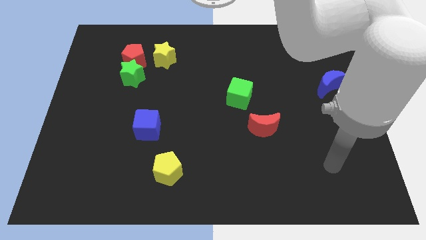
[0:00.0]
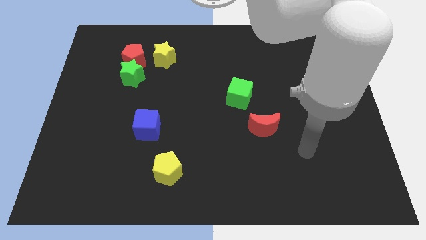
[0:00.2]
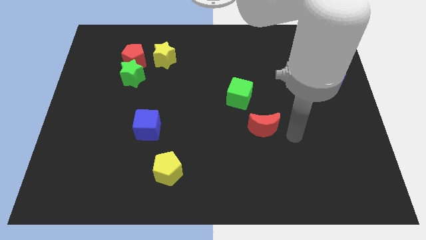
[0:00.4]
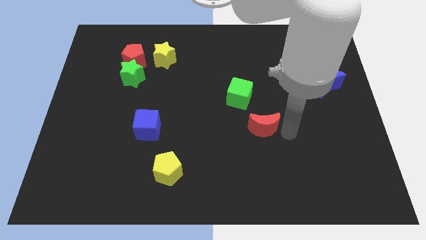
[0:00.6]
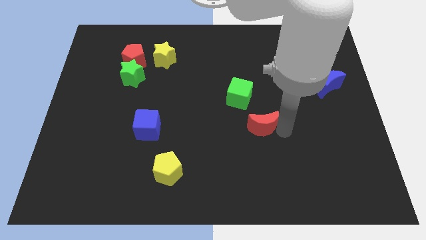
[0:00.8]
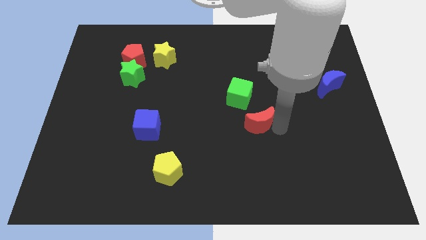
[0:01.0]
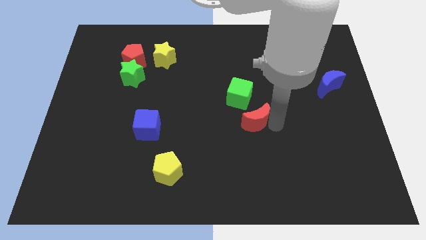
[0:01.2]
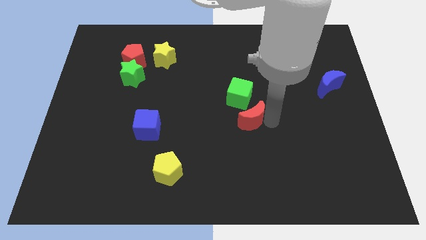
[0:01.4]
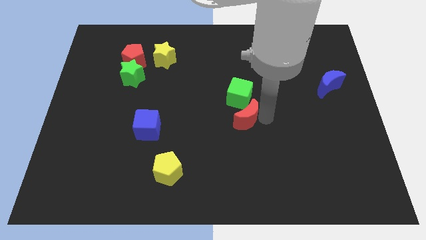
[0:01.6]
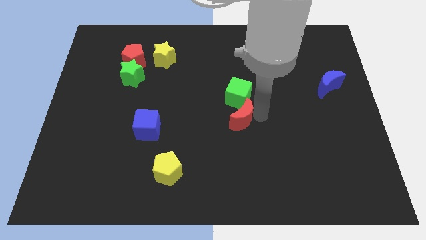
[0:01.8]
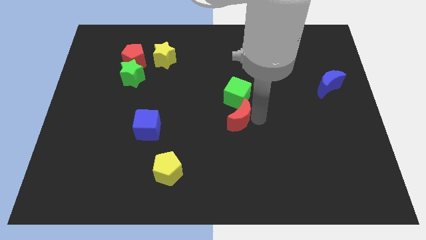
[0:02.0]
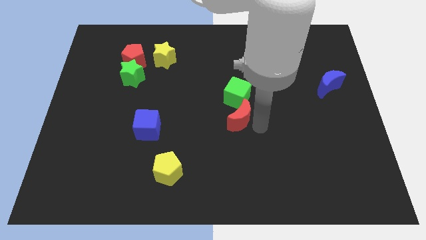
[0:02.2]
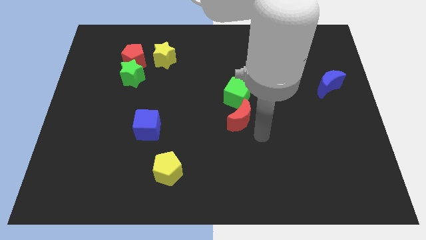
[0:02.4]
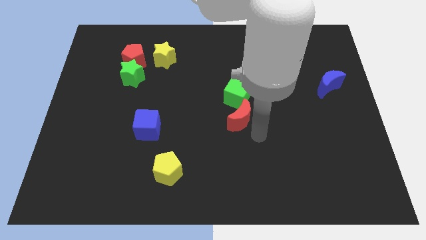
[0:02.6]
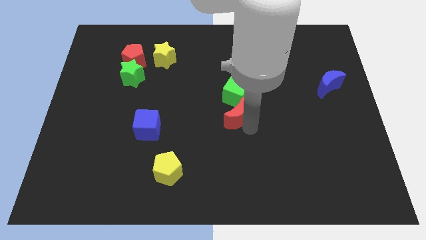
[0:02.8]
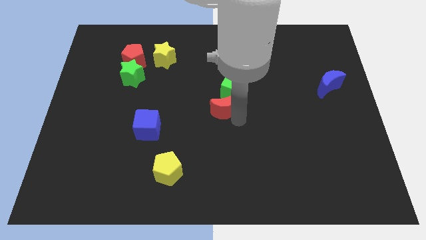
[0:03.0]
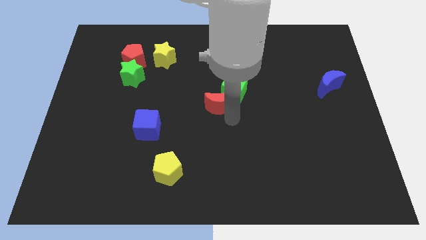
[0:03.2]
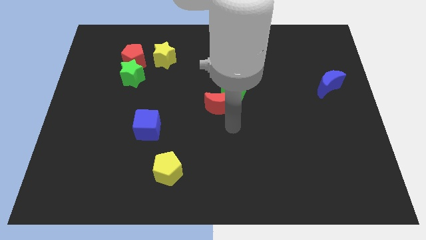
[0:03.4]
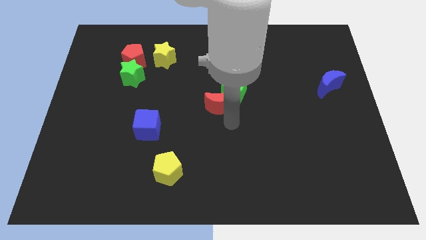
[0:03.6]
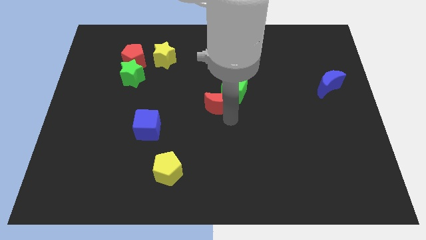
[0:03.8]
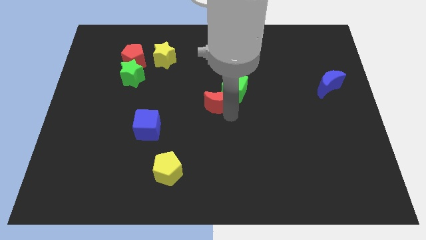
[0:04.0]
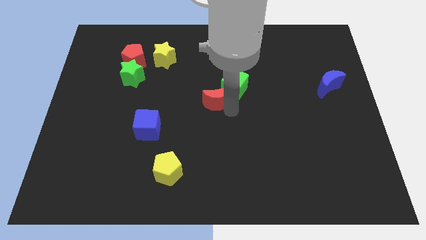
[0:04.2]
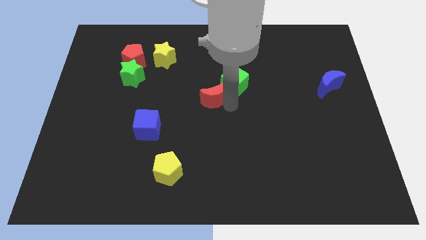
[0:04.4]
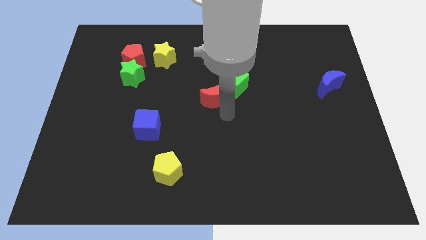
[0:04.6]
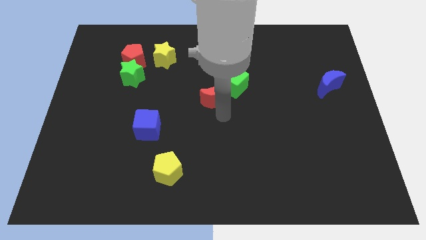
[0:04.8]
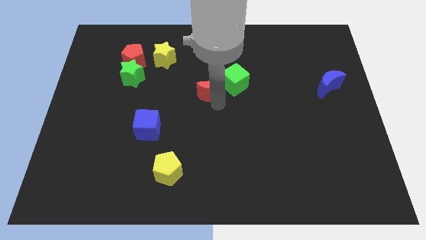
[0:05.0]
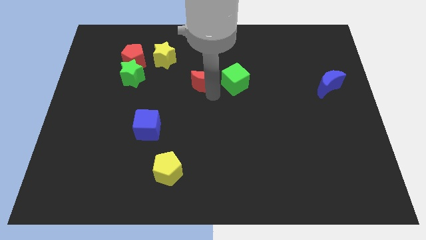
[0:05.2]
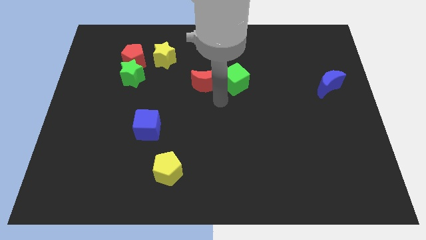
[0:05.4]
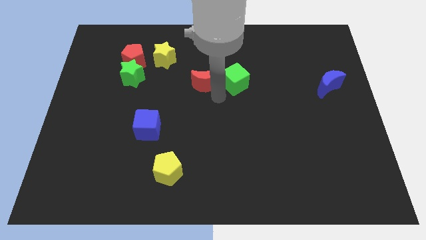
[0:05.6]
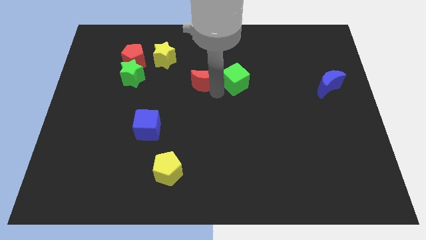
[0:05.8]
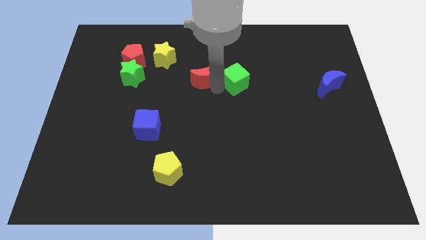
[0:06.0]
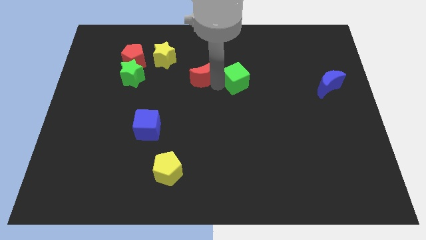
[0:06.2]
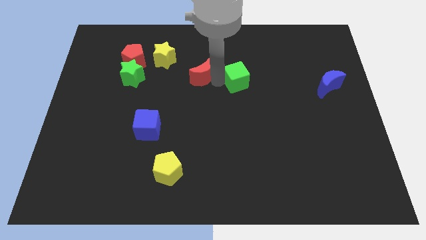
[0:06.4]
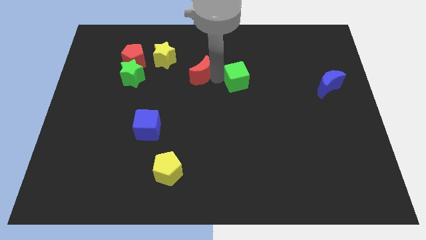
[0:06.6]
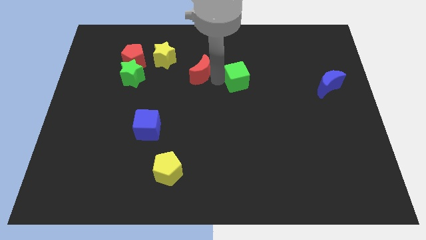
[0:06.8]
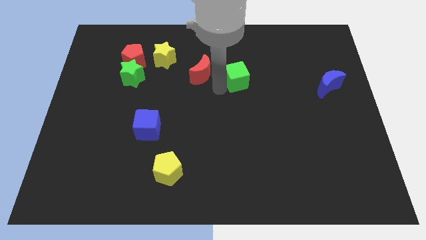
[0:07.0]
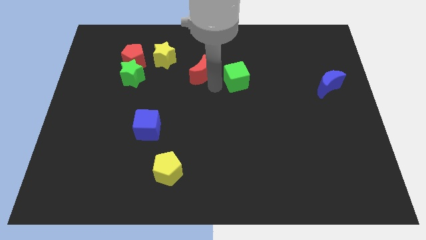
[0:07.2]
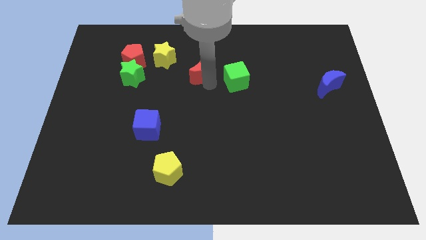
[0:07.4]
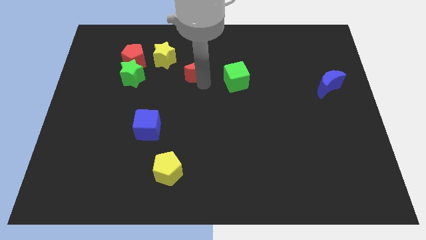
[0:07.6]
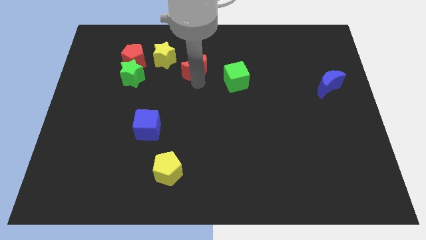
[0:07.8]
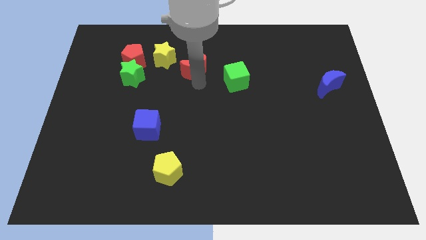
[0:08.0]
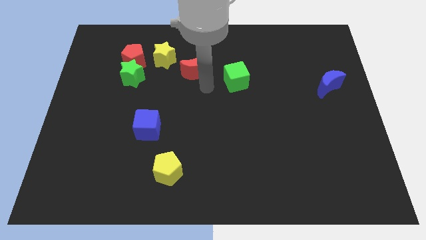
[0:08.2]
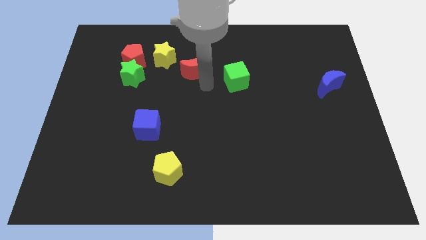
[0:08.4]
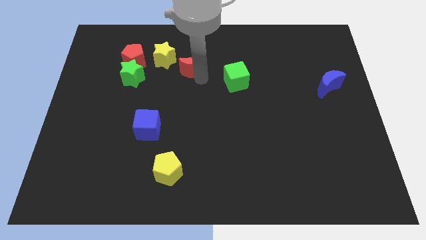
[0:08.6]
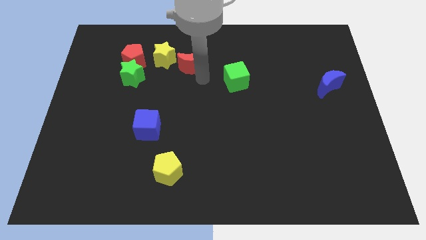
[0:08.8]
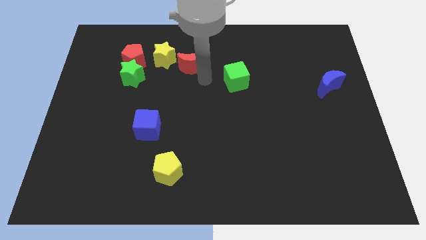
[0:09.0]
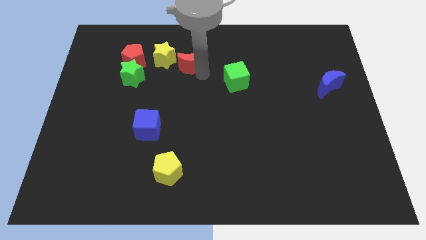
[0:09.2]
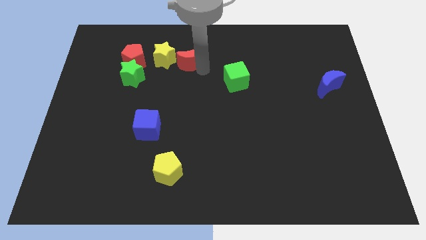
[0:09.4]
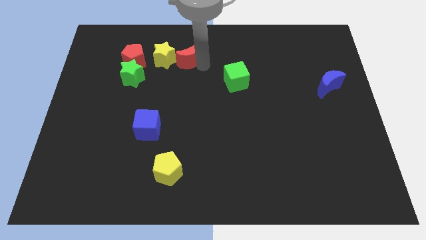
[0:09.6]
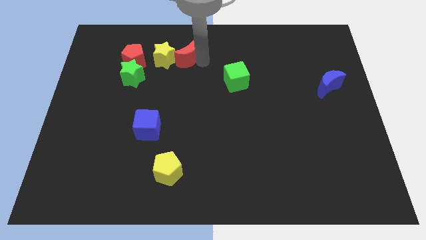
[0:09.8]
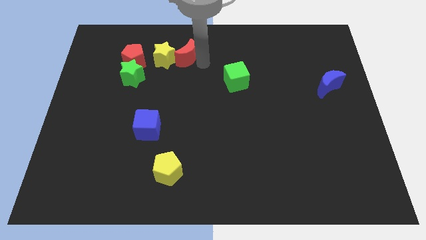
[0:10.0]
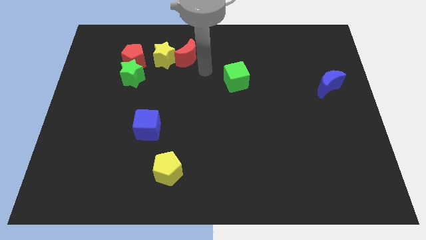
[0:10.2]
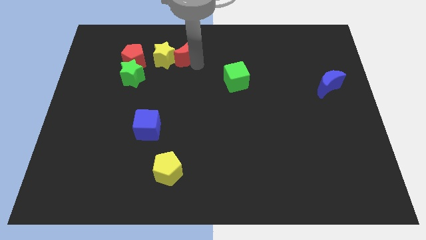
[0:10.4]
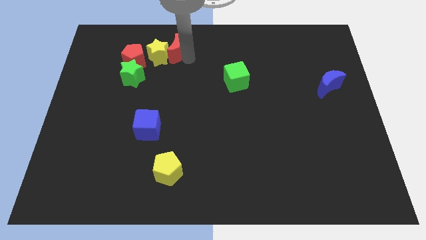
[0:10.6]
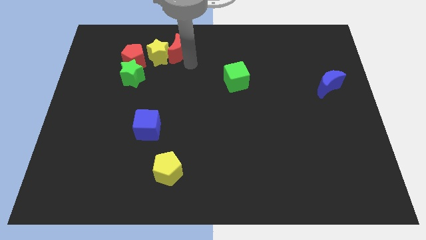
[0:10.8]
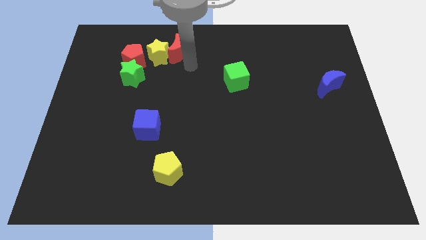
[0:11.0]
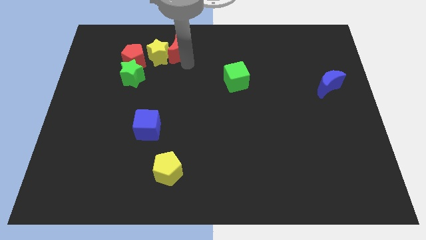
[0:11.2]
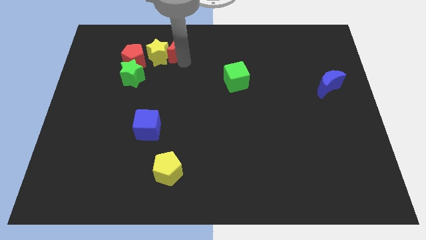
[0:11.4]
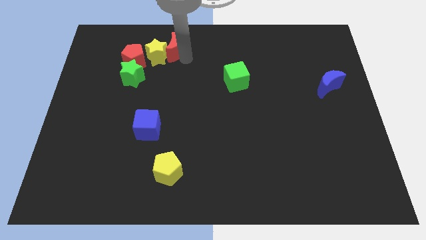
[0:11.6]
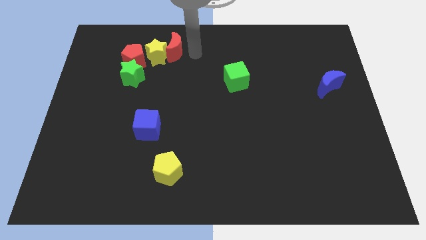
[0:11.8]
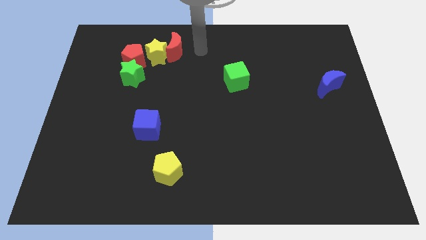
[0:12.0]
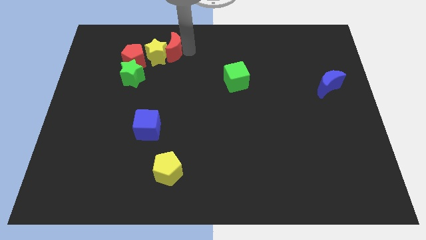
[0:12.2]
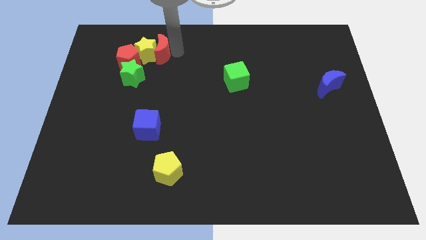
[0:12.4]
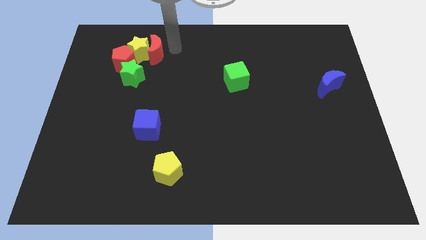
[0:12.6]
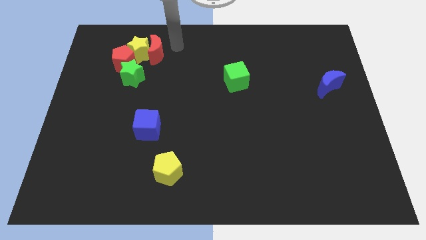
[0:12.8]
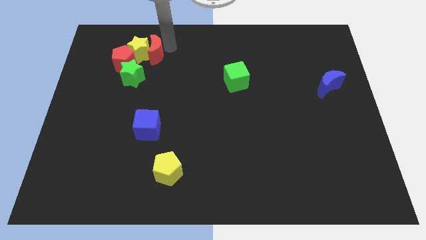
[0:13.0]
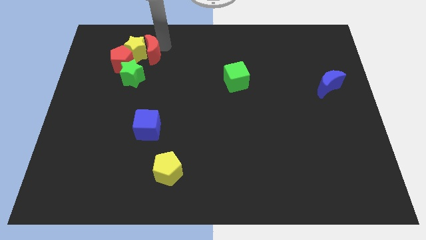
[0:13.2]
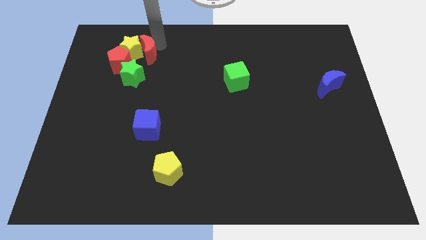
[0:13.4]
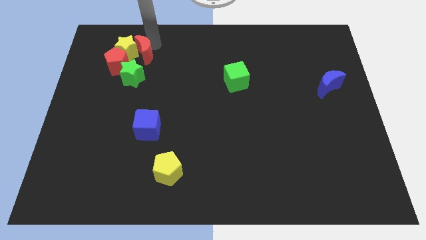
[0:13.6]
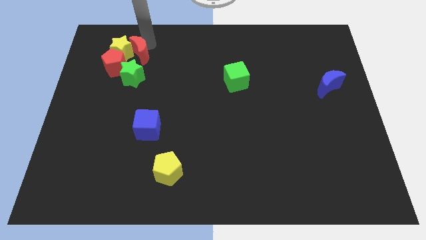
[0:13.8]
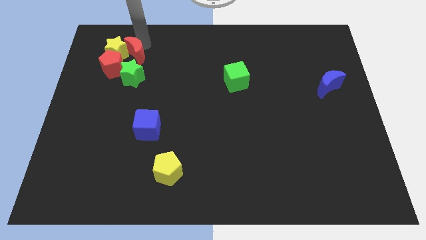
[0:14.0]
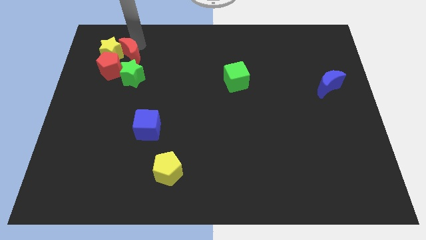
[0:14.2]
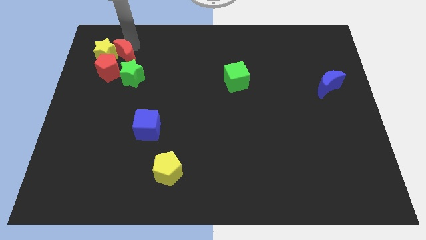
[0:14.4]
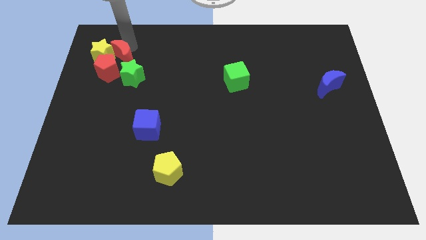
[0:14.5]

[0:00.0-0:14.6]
put the red moon towards the red pentagon
